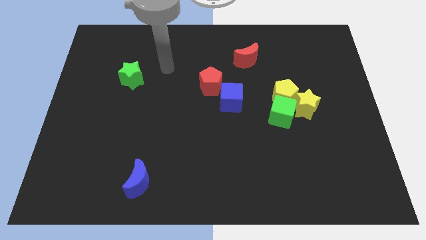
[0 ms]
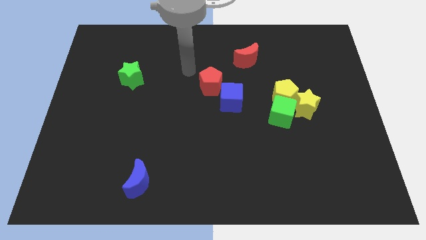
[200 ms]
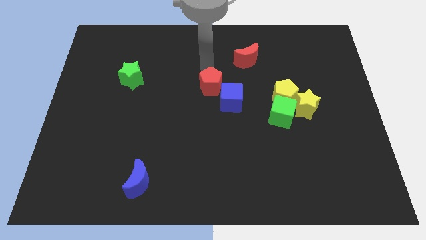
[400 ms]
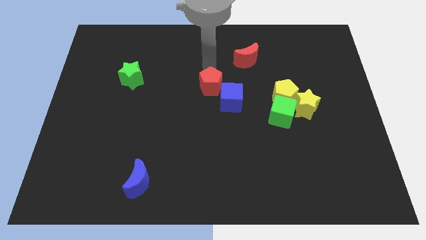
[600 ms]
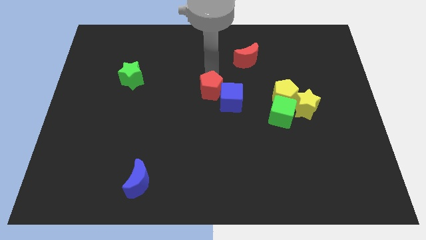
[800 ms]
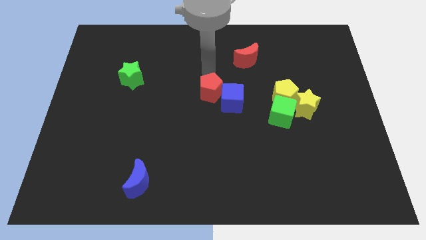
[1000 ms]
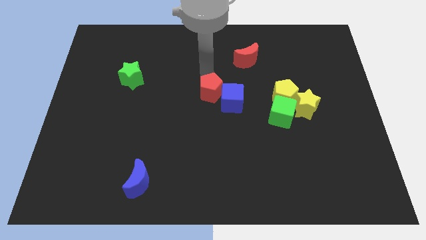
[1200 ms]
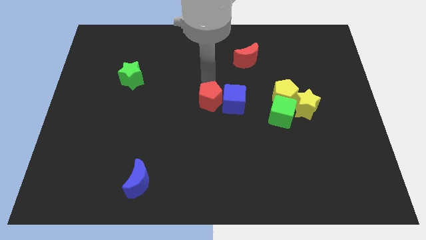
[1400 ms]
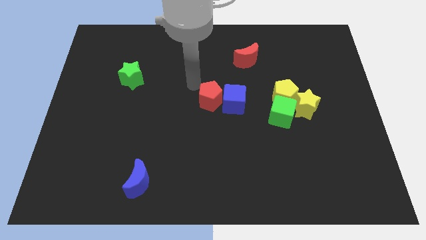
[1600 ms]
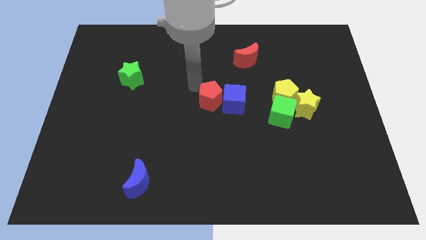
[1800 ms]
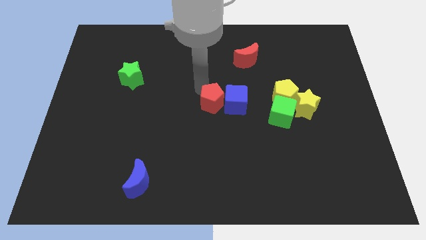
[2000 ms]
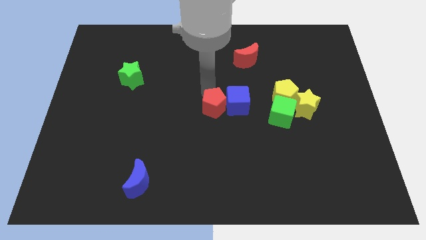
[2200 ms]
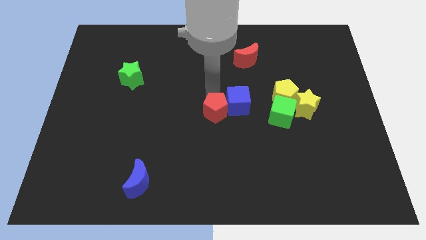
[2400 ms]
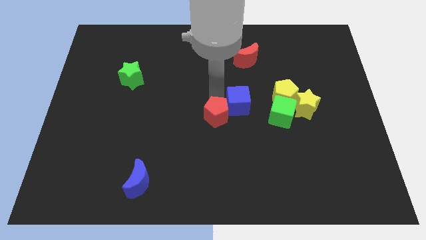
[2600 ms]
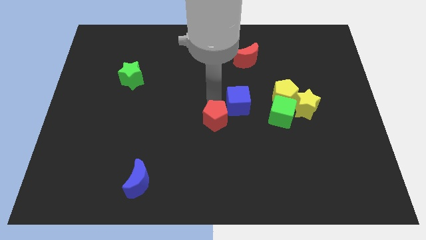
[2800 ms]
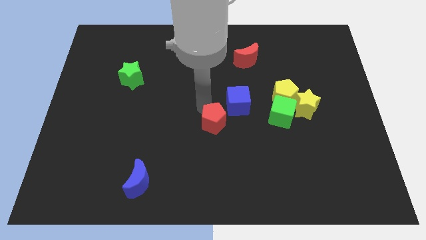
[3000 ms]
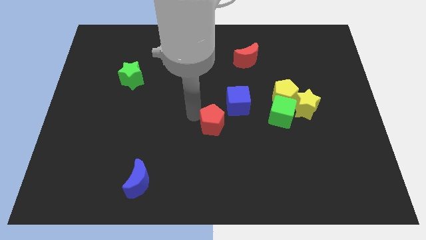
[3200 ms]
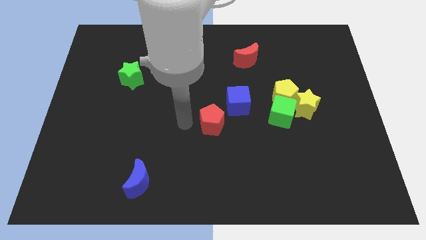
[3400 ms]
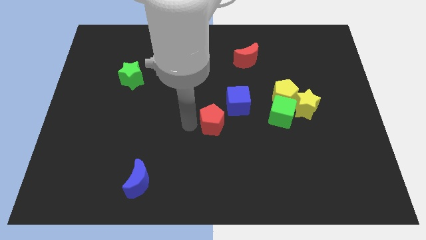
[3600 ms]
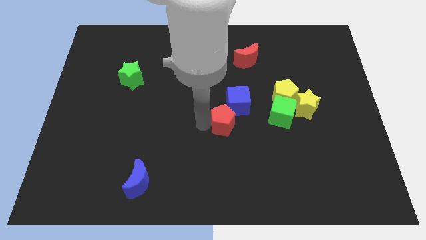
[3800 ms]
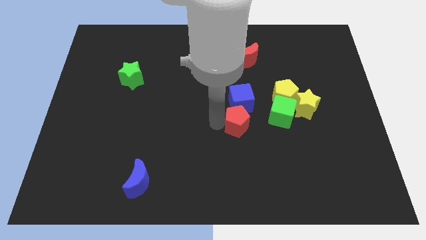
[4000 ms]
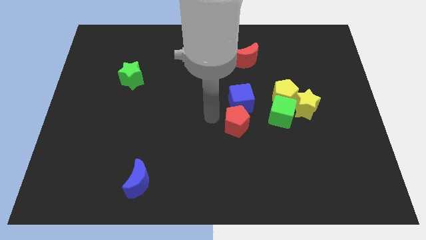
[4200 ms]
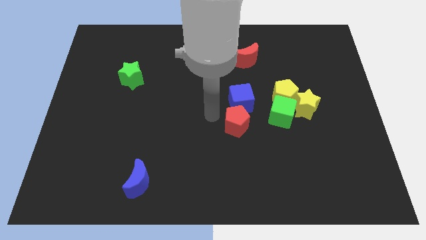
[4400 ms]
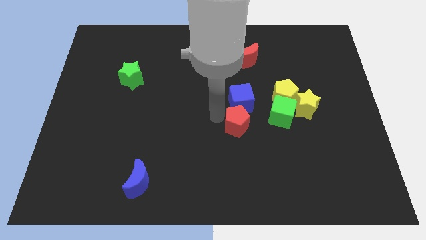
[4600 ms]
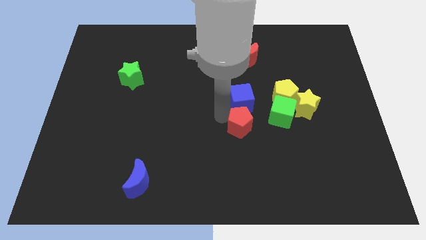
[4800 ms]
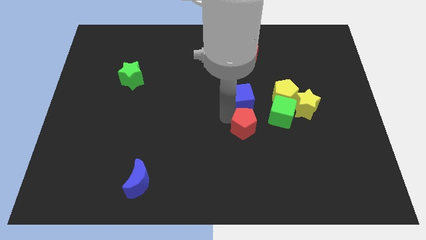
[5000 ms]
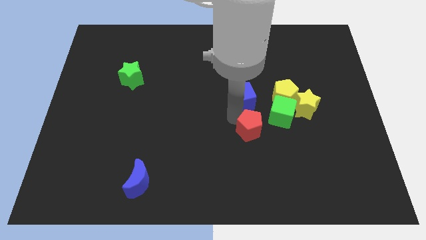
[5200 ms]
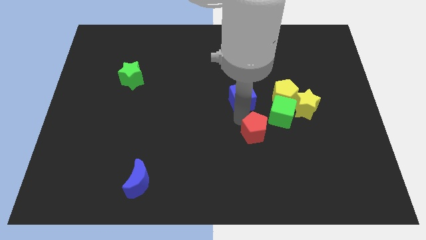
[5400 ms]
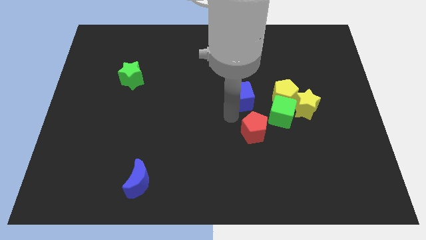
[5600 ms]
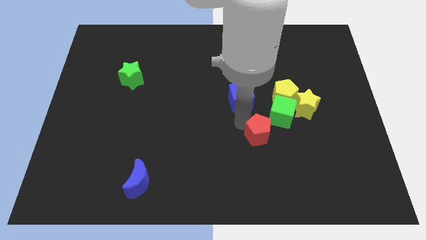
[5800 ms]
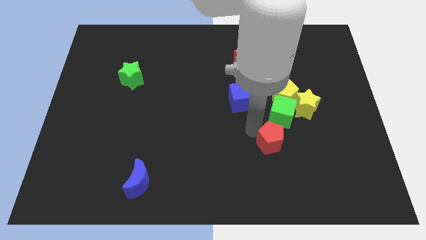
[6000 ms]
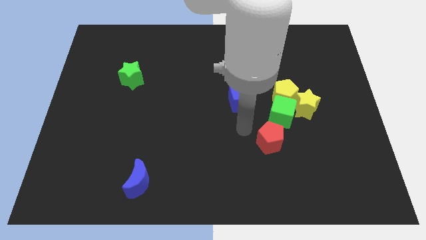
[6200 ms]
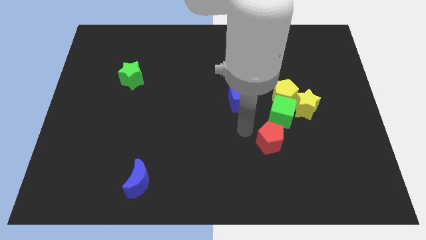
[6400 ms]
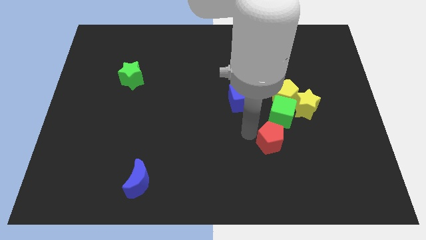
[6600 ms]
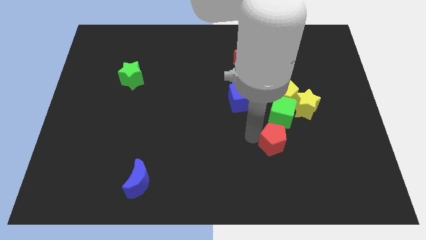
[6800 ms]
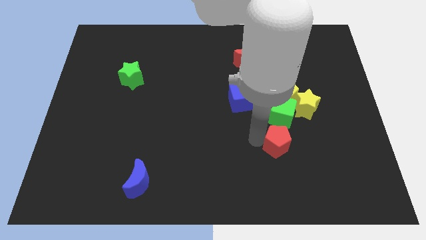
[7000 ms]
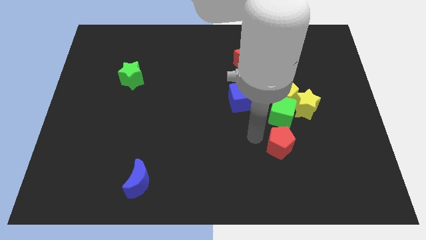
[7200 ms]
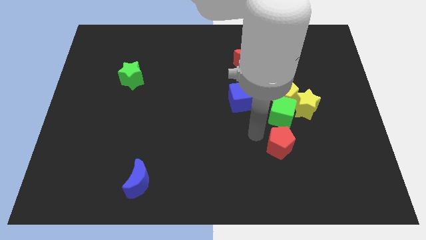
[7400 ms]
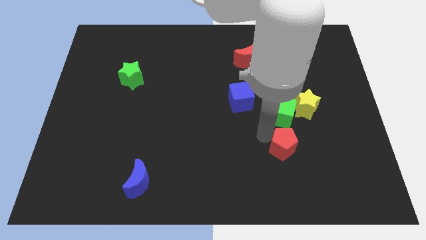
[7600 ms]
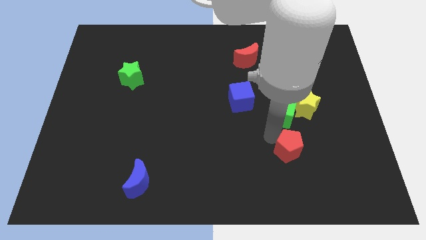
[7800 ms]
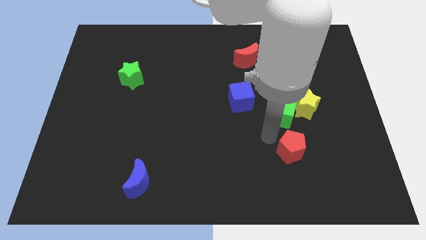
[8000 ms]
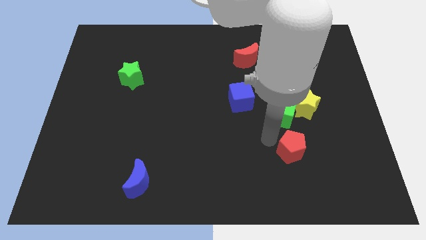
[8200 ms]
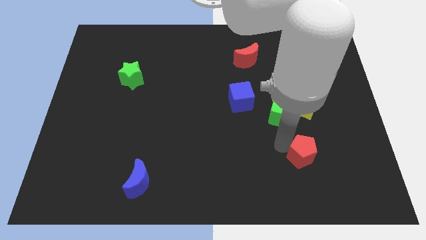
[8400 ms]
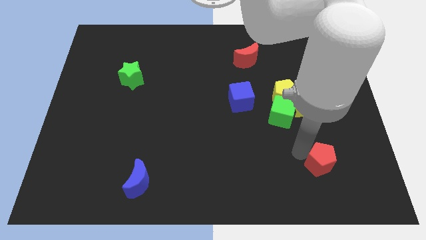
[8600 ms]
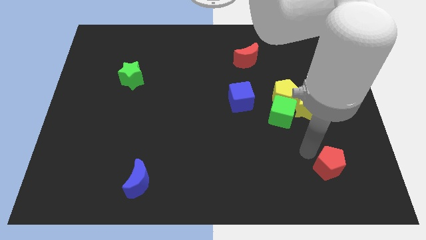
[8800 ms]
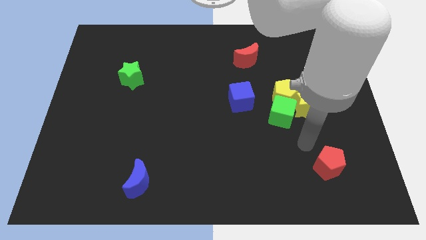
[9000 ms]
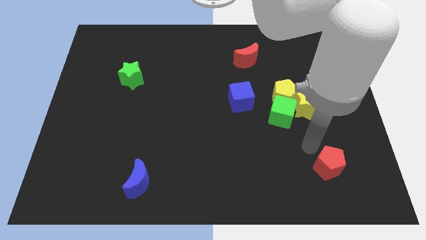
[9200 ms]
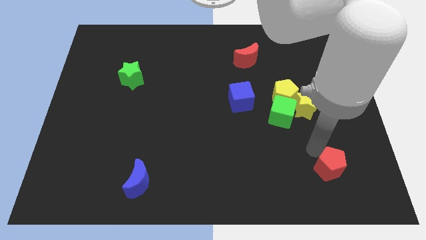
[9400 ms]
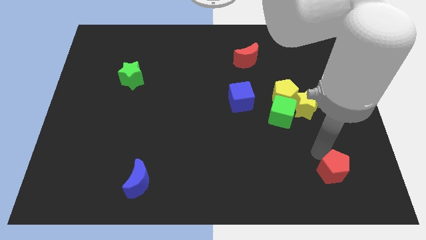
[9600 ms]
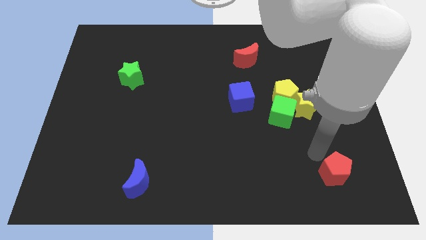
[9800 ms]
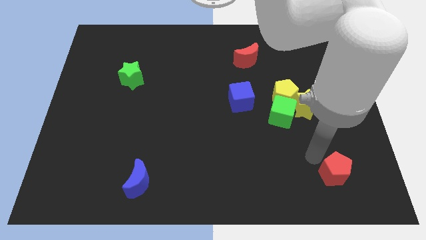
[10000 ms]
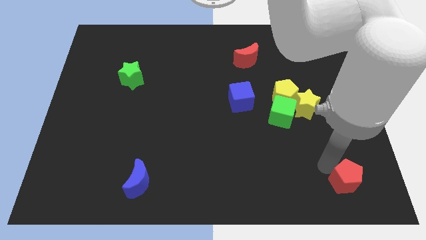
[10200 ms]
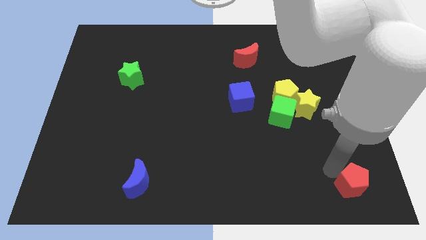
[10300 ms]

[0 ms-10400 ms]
push the red pentagon to the bottom right corner

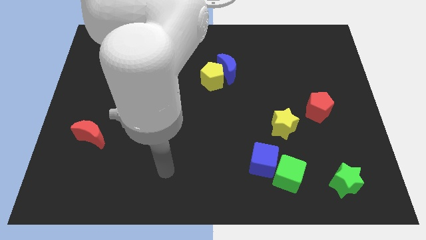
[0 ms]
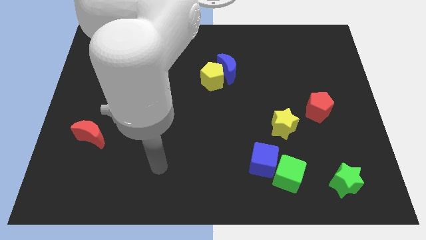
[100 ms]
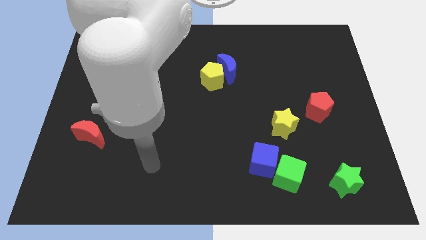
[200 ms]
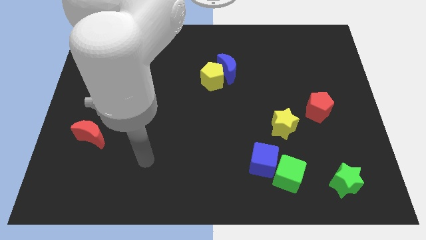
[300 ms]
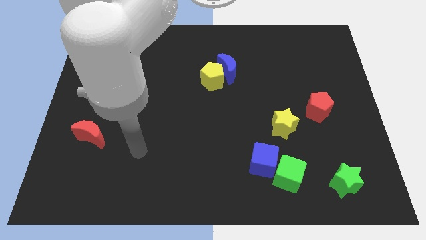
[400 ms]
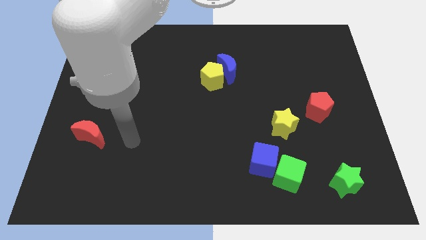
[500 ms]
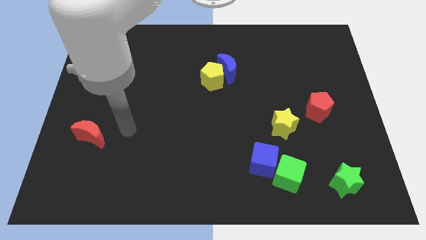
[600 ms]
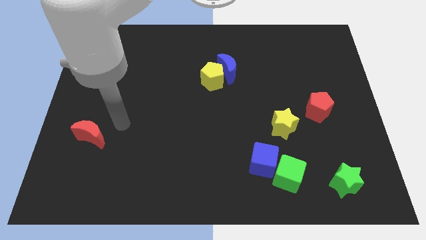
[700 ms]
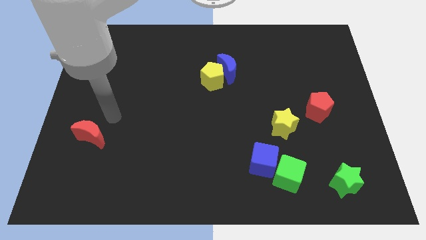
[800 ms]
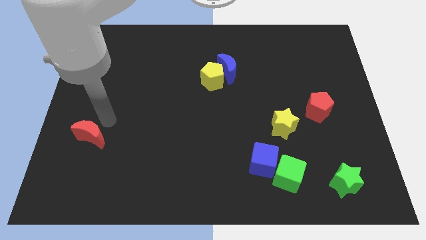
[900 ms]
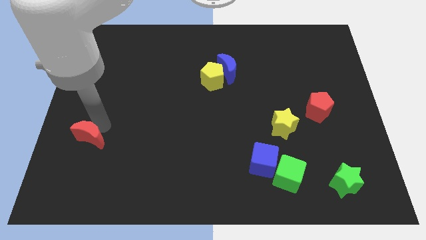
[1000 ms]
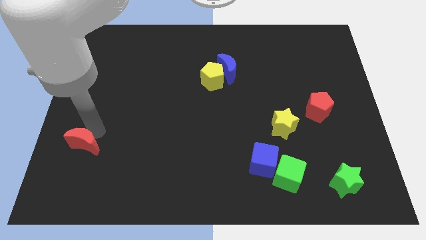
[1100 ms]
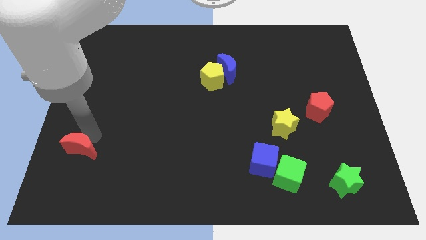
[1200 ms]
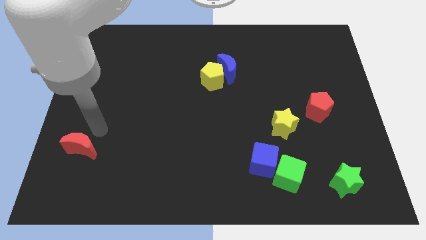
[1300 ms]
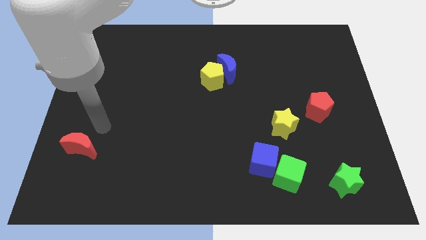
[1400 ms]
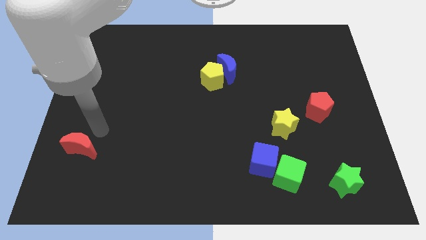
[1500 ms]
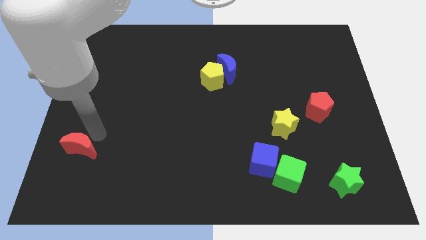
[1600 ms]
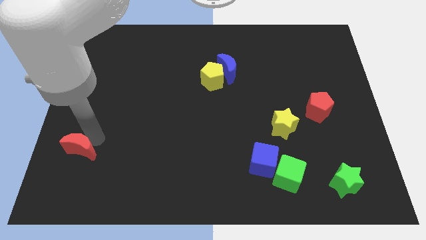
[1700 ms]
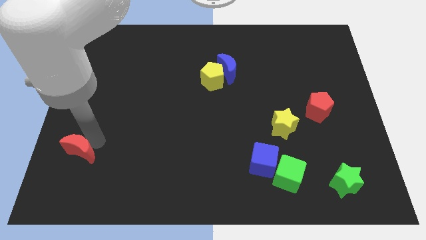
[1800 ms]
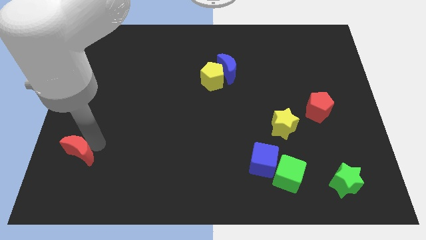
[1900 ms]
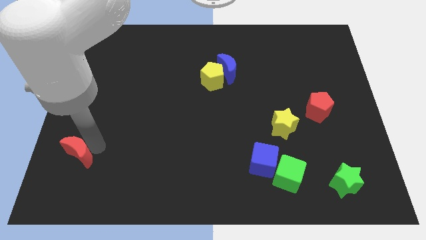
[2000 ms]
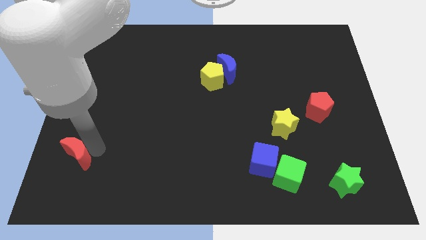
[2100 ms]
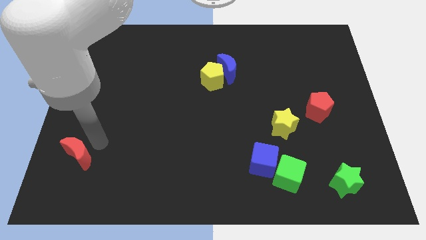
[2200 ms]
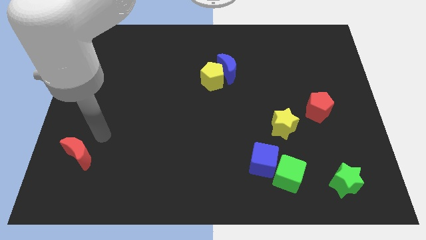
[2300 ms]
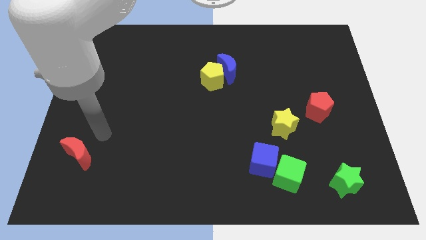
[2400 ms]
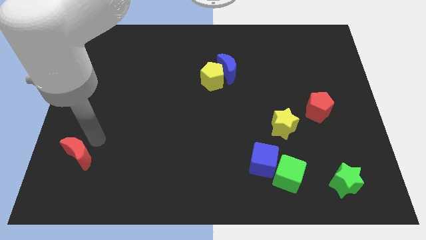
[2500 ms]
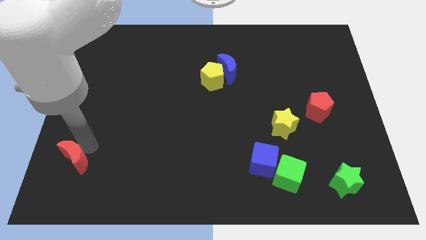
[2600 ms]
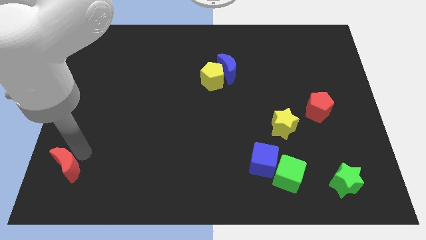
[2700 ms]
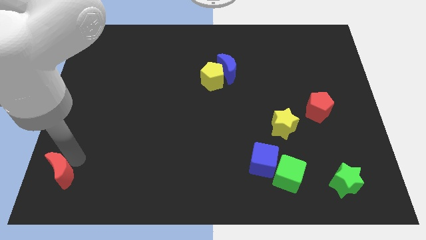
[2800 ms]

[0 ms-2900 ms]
slide the red moon to the bottom left corner
